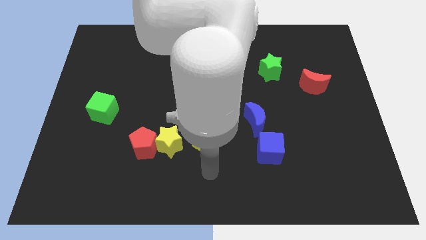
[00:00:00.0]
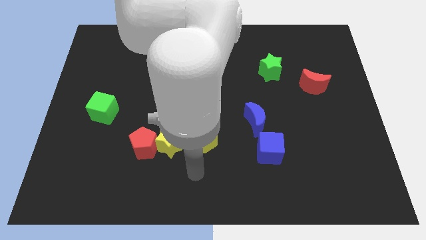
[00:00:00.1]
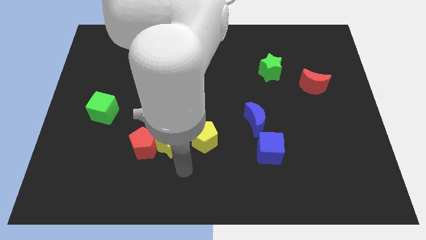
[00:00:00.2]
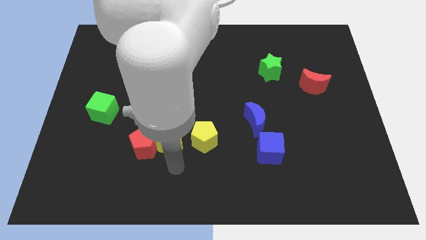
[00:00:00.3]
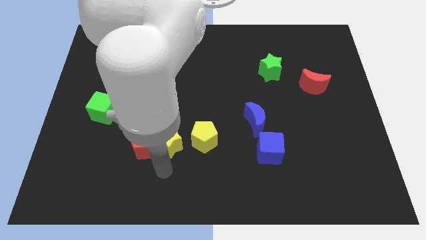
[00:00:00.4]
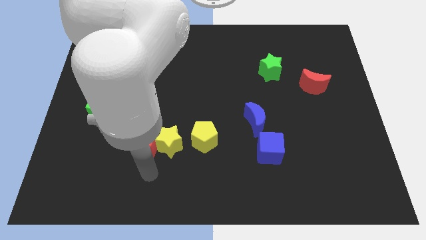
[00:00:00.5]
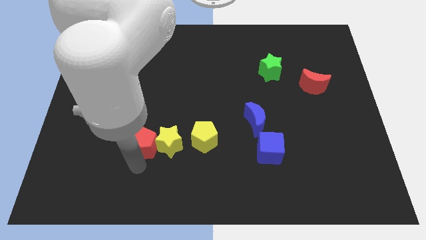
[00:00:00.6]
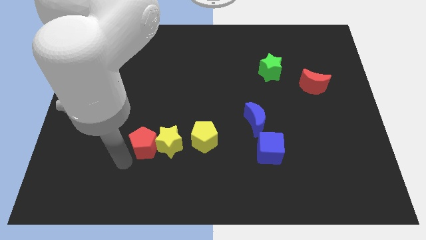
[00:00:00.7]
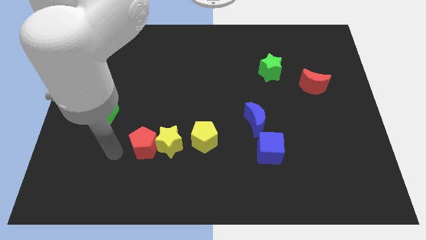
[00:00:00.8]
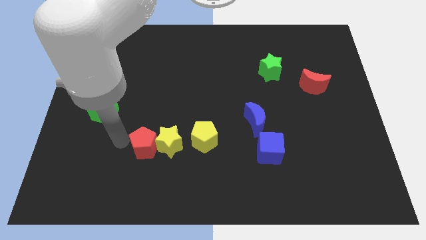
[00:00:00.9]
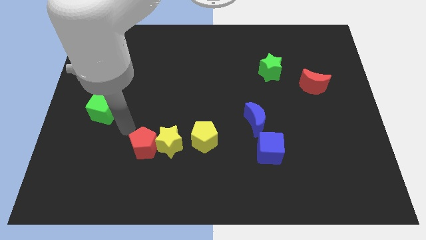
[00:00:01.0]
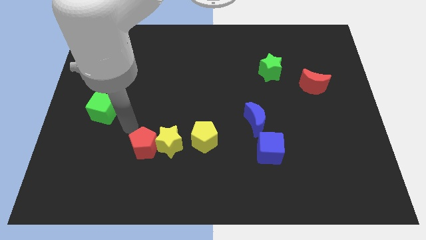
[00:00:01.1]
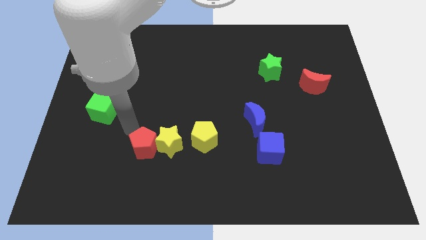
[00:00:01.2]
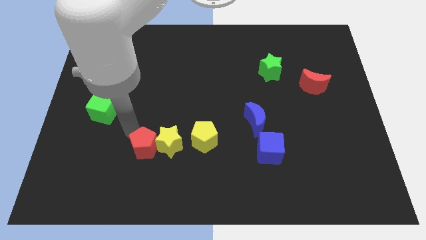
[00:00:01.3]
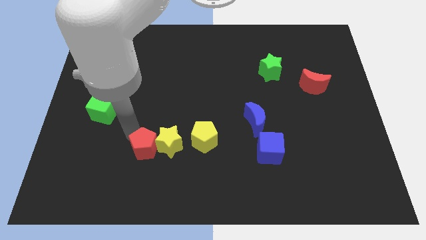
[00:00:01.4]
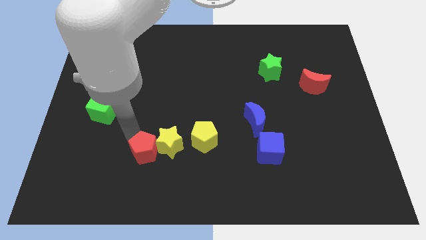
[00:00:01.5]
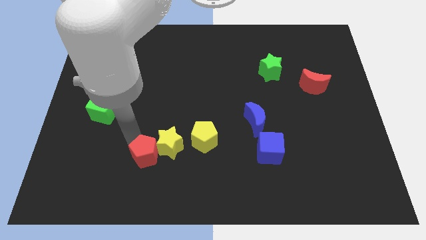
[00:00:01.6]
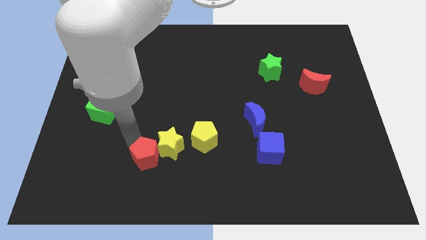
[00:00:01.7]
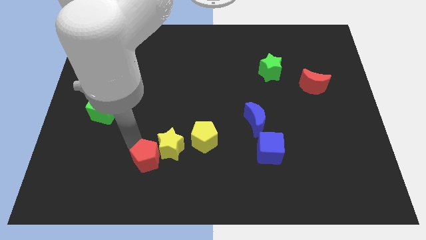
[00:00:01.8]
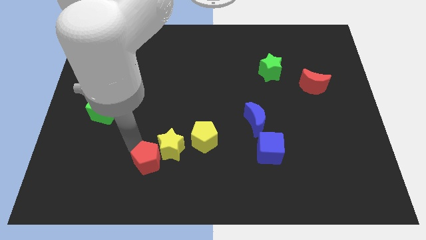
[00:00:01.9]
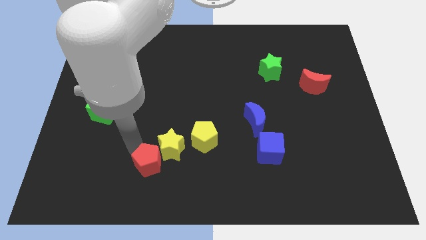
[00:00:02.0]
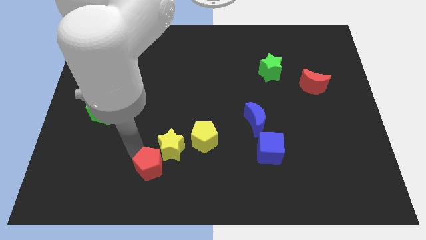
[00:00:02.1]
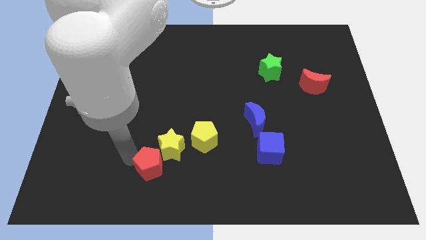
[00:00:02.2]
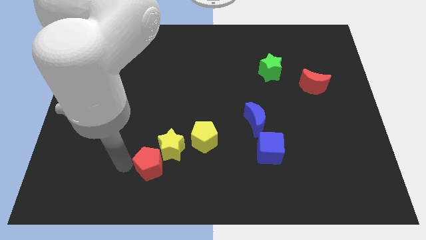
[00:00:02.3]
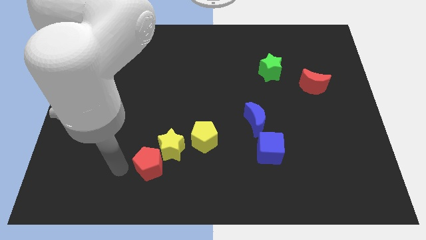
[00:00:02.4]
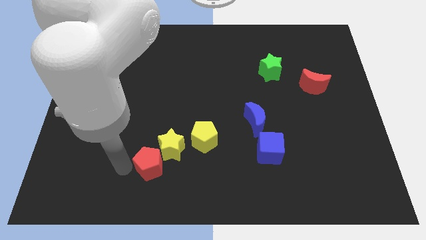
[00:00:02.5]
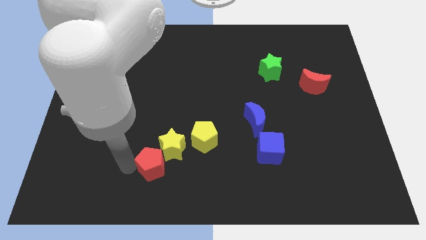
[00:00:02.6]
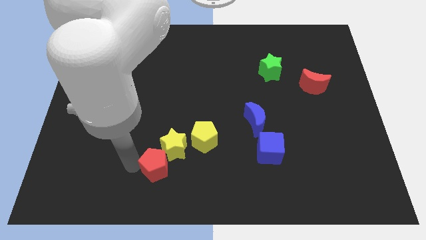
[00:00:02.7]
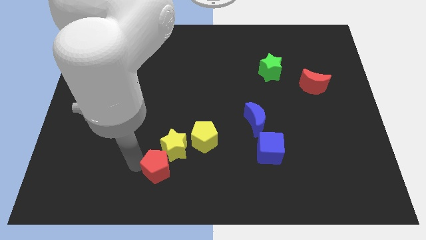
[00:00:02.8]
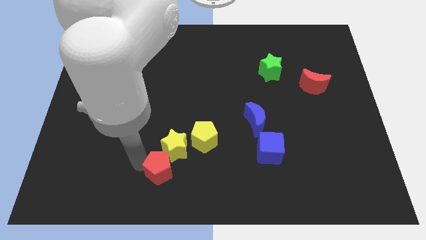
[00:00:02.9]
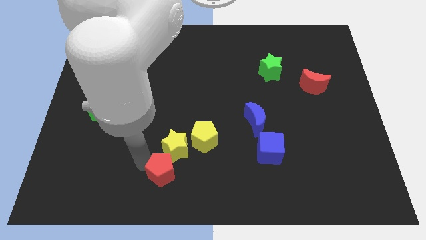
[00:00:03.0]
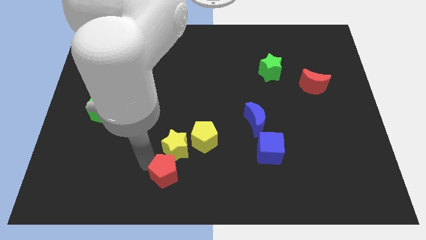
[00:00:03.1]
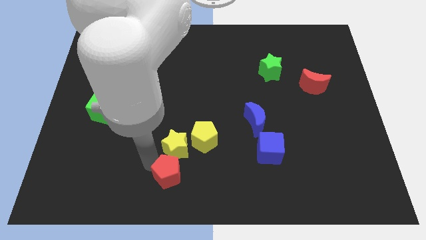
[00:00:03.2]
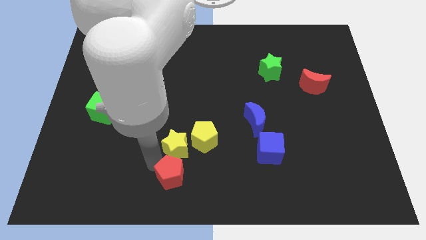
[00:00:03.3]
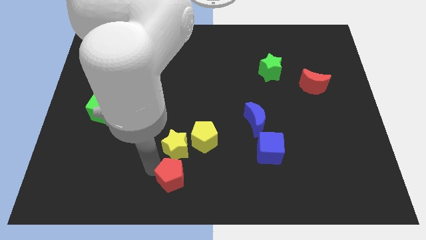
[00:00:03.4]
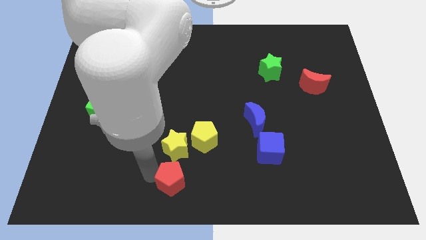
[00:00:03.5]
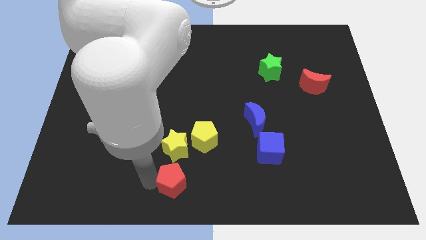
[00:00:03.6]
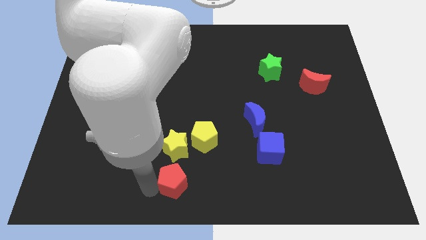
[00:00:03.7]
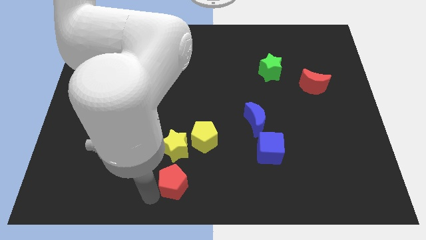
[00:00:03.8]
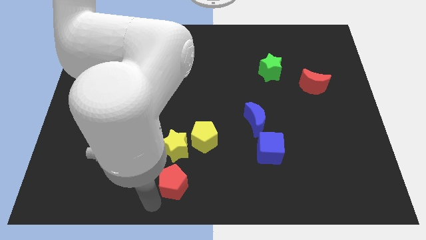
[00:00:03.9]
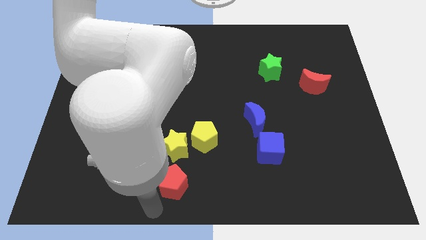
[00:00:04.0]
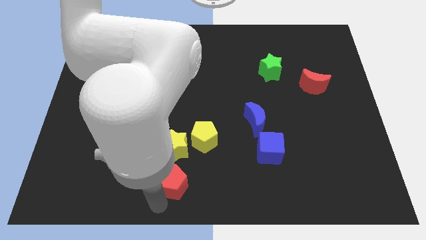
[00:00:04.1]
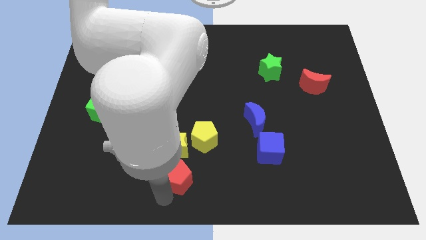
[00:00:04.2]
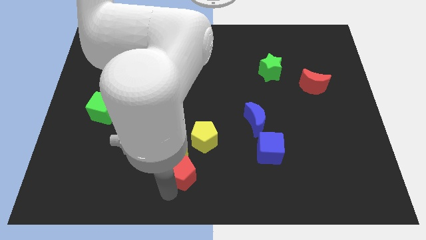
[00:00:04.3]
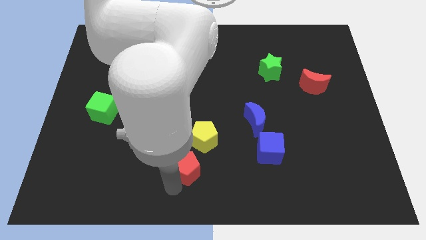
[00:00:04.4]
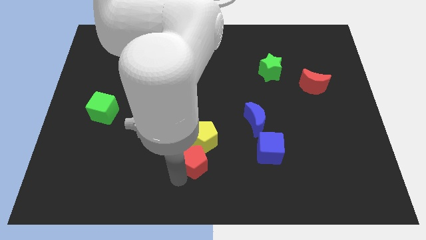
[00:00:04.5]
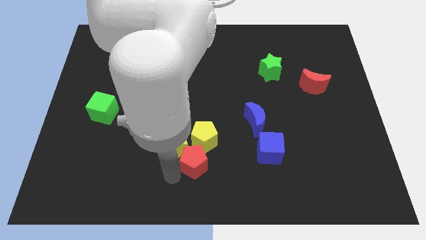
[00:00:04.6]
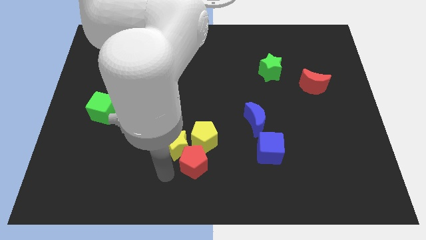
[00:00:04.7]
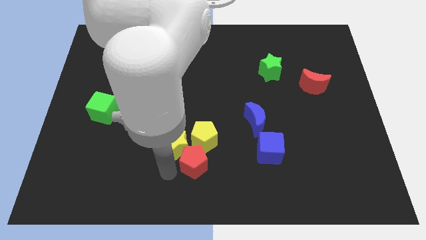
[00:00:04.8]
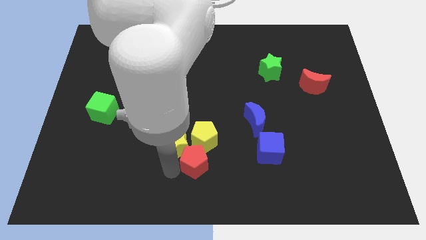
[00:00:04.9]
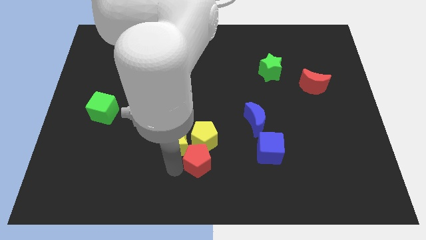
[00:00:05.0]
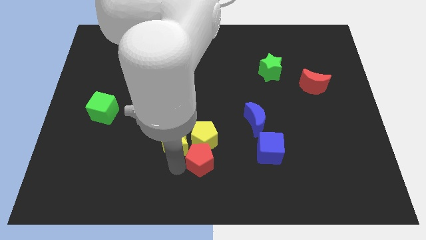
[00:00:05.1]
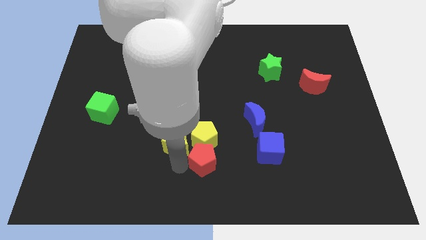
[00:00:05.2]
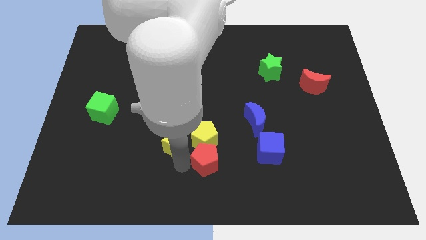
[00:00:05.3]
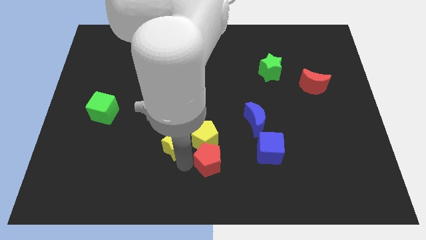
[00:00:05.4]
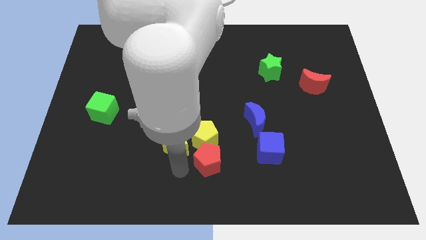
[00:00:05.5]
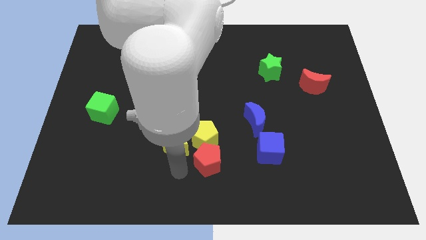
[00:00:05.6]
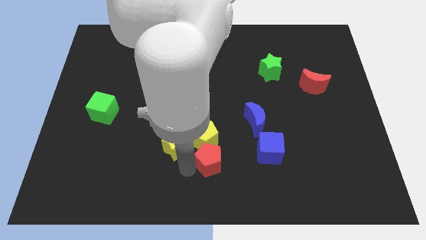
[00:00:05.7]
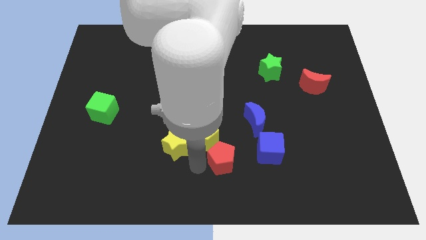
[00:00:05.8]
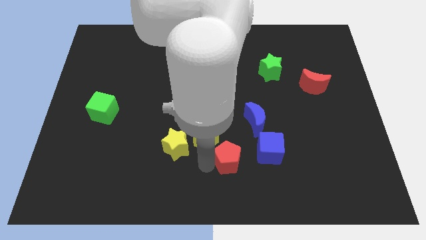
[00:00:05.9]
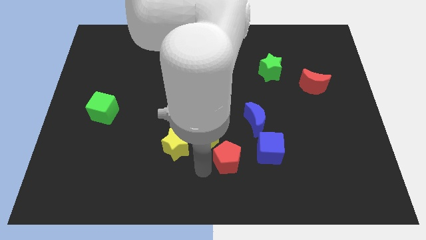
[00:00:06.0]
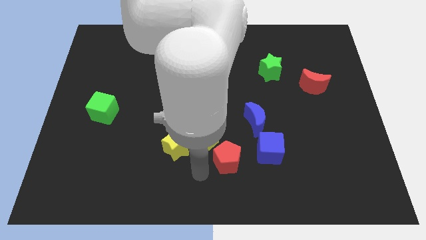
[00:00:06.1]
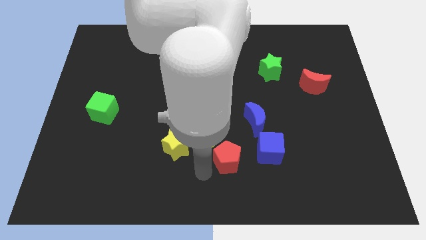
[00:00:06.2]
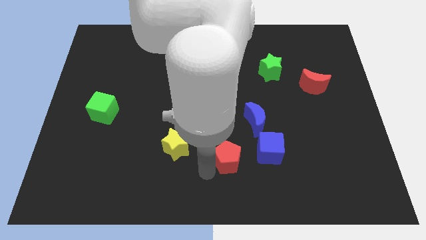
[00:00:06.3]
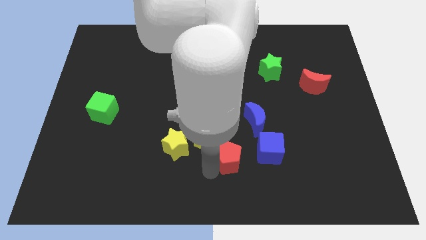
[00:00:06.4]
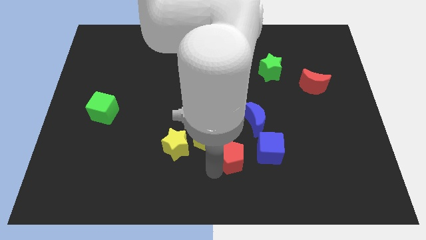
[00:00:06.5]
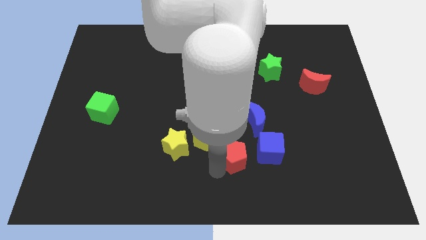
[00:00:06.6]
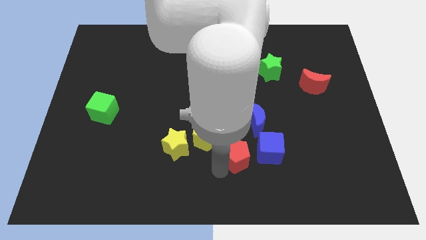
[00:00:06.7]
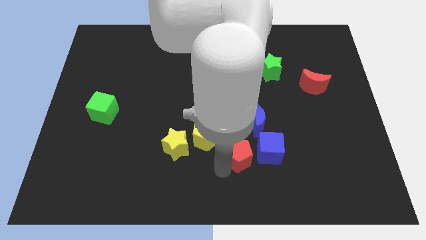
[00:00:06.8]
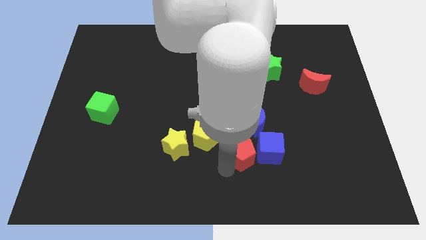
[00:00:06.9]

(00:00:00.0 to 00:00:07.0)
slide the red pentagon next to the blue cube

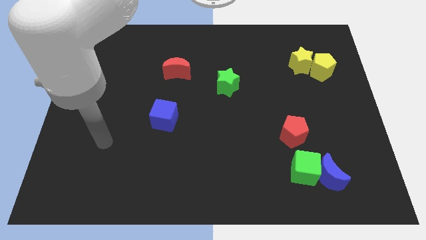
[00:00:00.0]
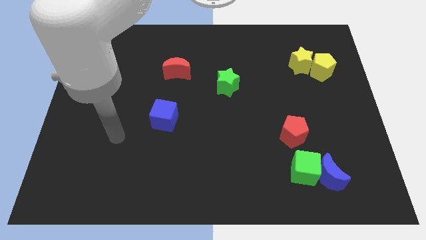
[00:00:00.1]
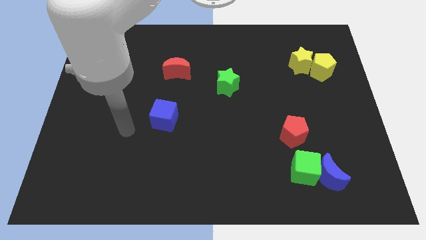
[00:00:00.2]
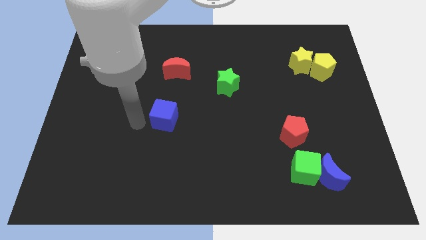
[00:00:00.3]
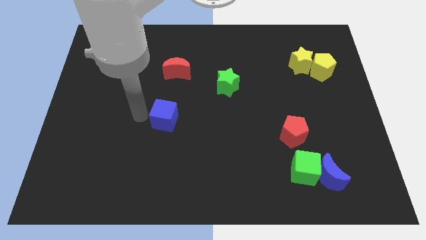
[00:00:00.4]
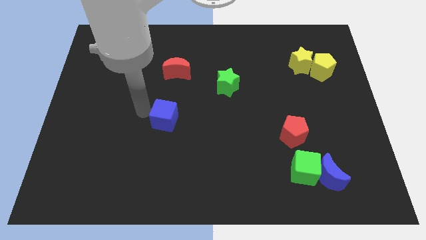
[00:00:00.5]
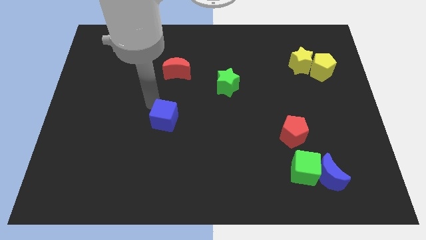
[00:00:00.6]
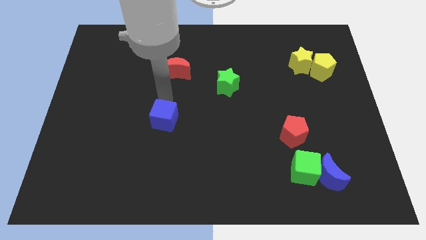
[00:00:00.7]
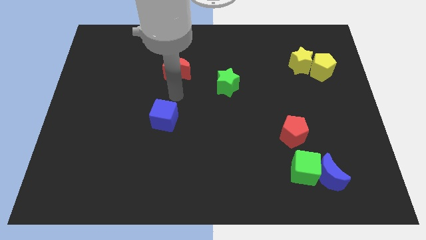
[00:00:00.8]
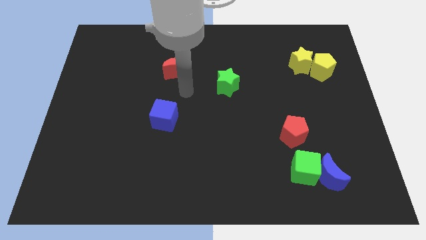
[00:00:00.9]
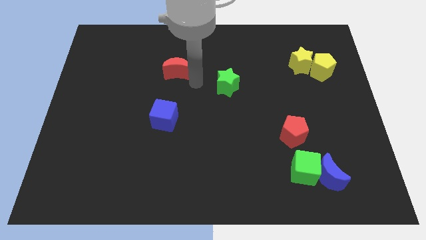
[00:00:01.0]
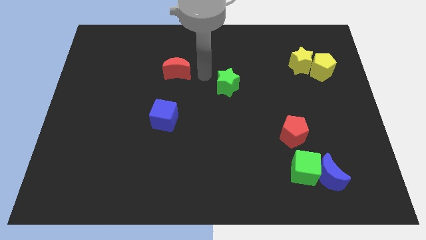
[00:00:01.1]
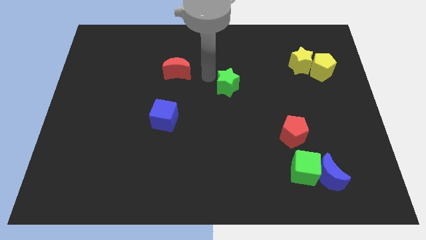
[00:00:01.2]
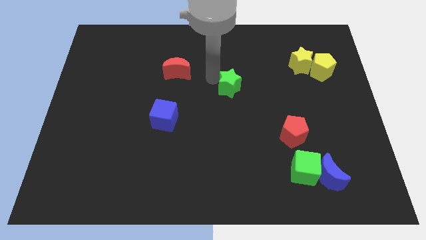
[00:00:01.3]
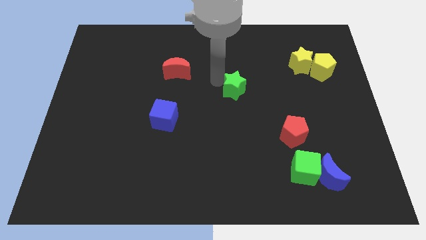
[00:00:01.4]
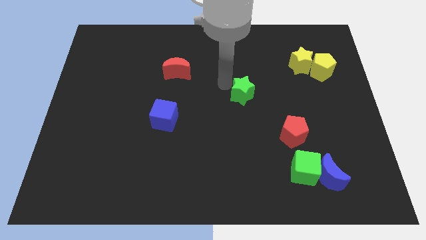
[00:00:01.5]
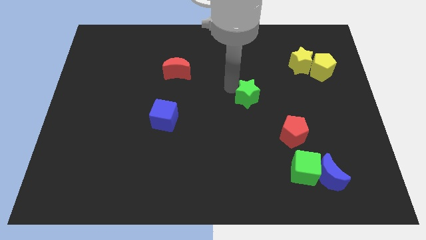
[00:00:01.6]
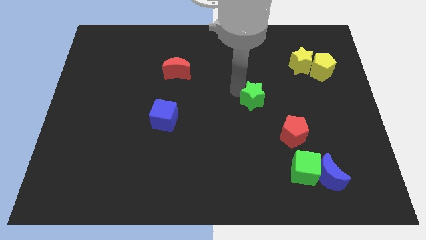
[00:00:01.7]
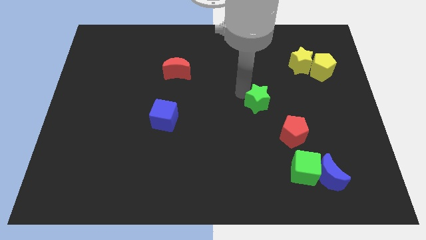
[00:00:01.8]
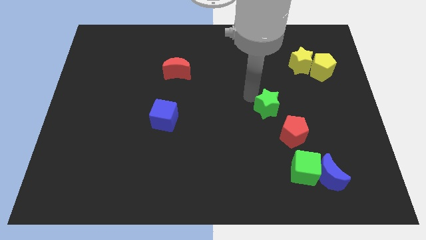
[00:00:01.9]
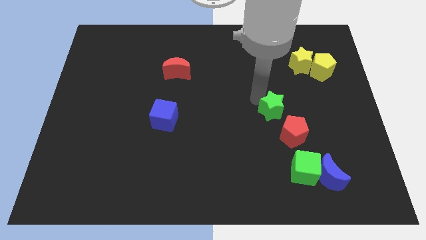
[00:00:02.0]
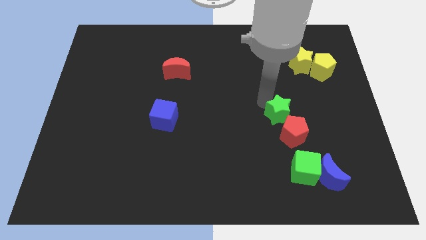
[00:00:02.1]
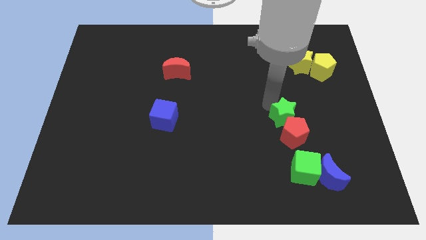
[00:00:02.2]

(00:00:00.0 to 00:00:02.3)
put the green star to the red pentagon
